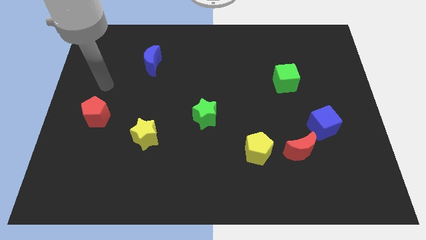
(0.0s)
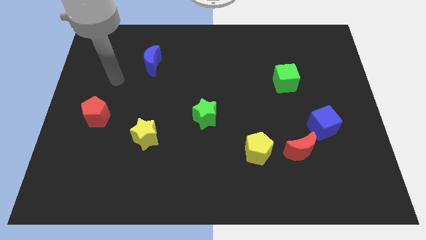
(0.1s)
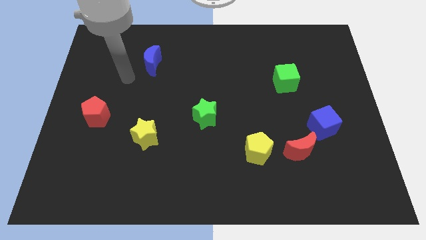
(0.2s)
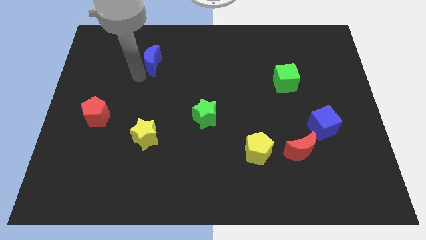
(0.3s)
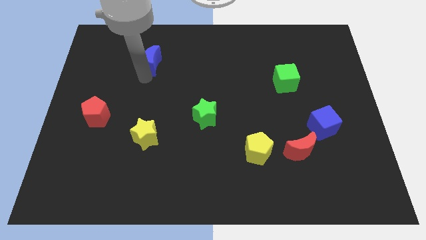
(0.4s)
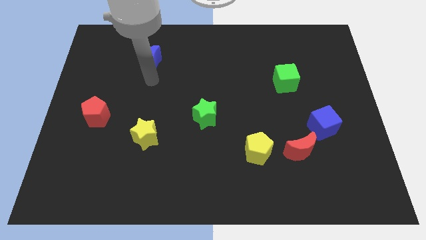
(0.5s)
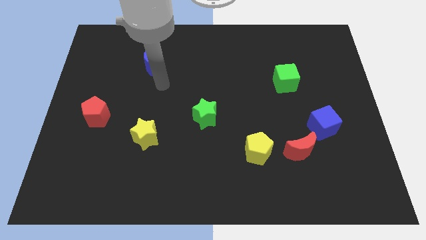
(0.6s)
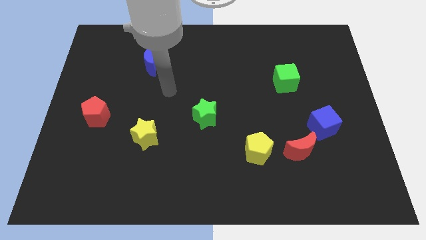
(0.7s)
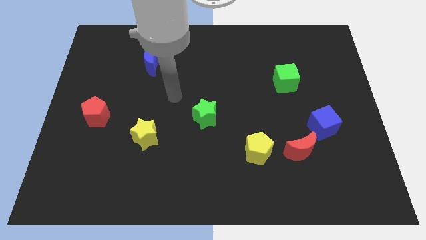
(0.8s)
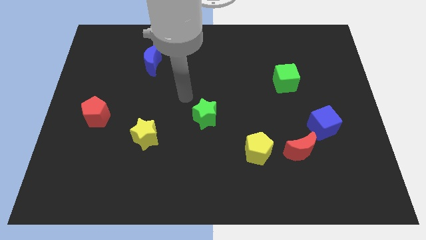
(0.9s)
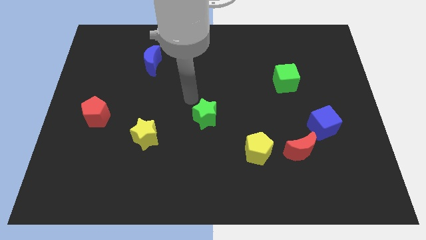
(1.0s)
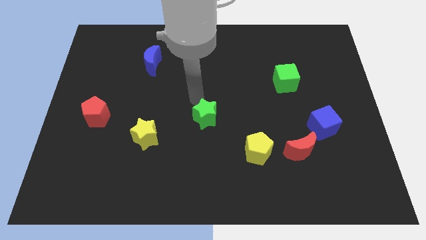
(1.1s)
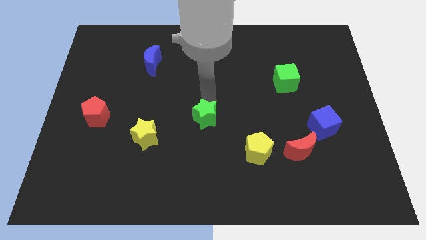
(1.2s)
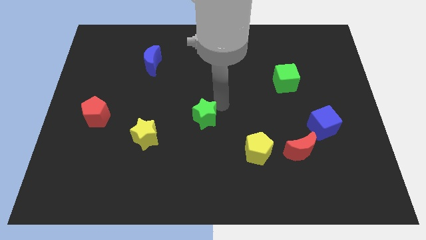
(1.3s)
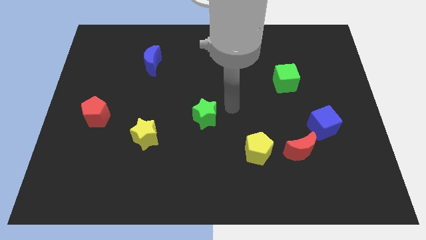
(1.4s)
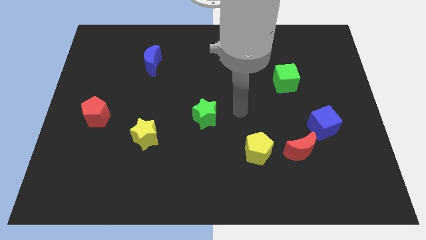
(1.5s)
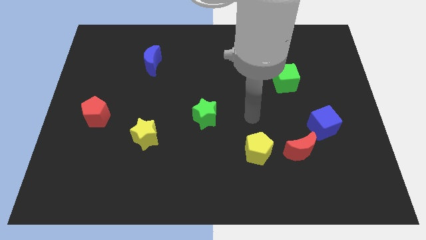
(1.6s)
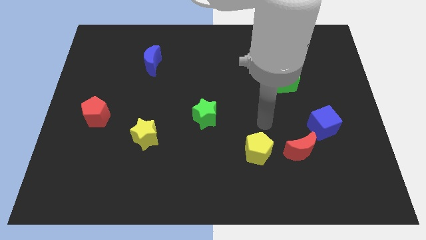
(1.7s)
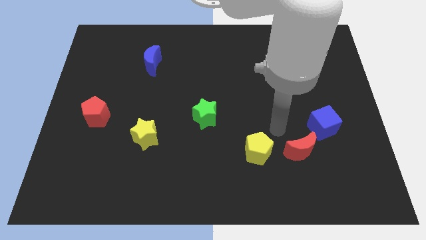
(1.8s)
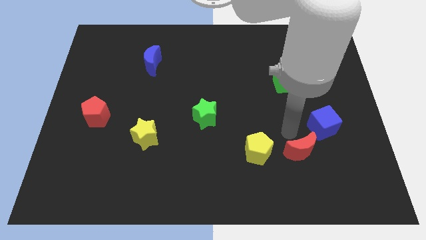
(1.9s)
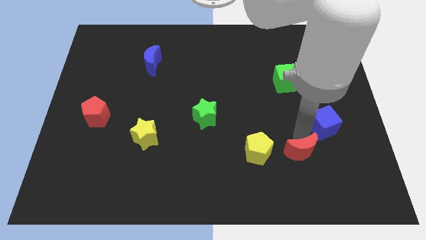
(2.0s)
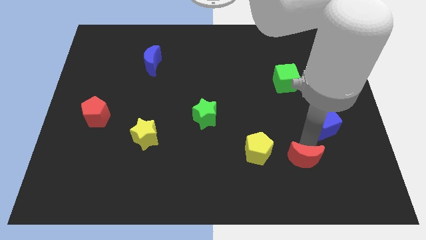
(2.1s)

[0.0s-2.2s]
pull the blue cube apart from the red moon

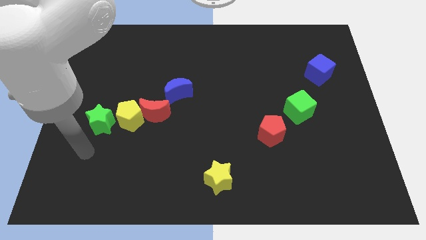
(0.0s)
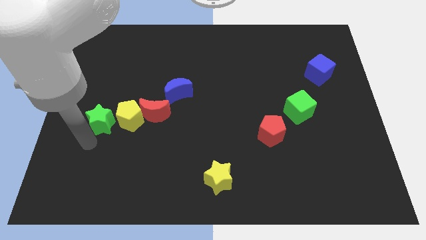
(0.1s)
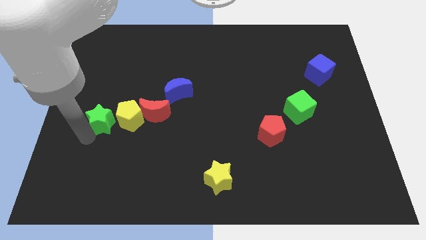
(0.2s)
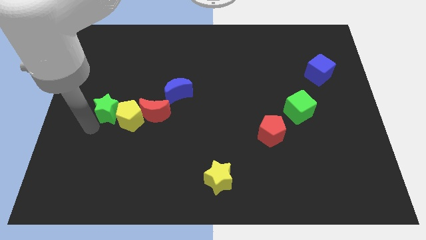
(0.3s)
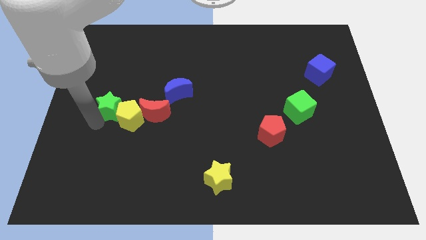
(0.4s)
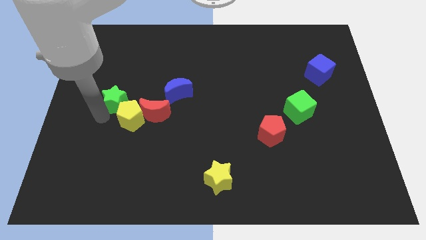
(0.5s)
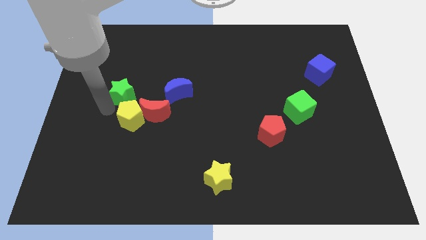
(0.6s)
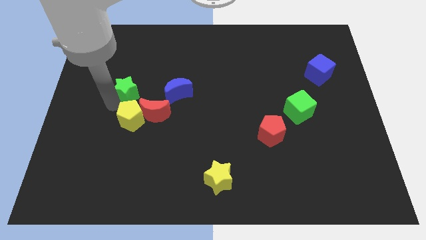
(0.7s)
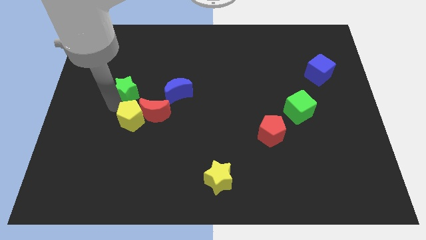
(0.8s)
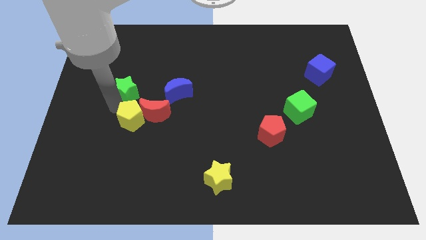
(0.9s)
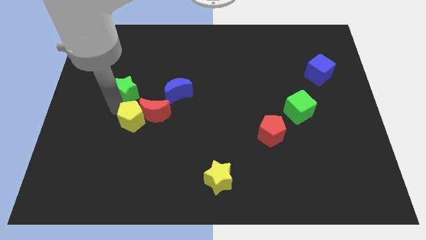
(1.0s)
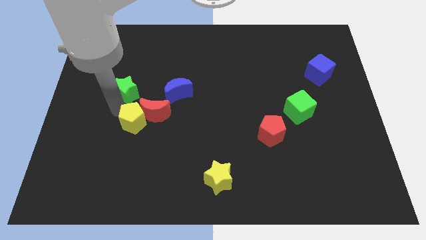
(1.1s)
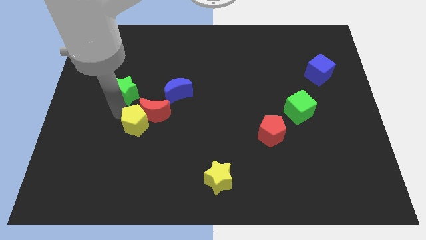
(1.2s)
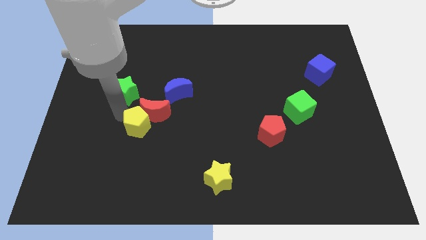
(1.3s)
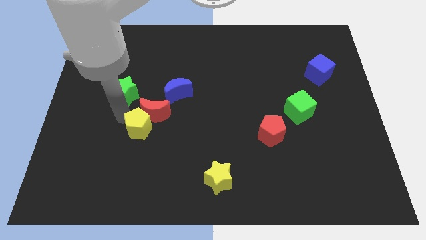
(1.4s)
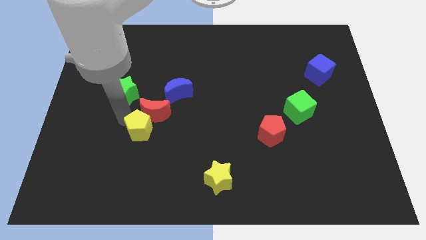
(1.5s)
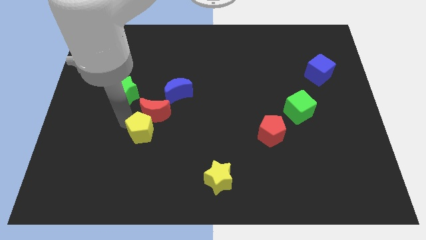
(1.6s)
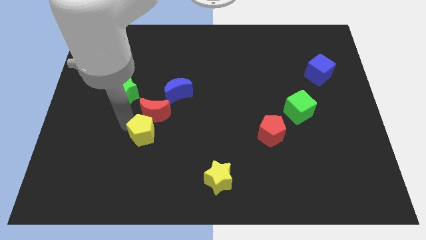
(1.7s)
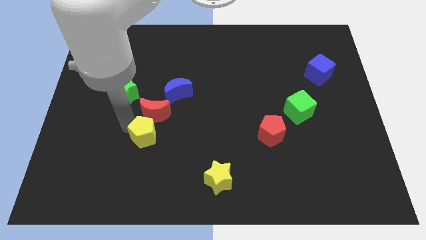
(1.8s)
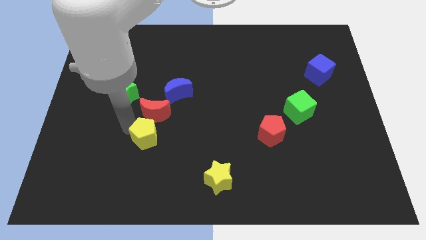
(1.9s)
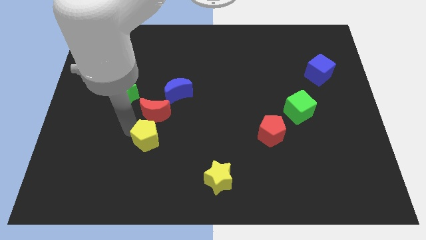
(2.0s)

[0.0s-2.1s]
separate the yellow pentagon from the red moon and green star

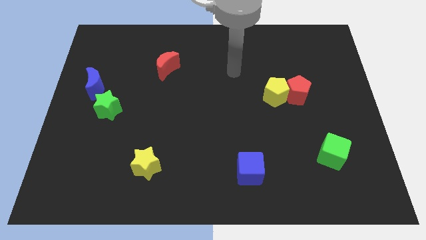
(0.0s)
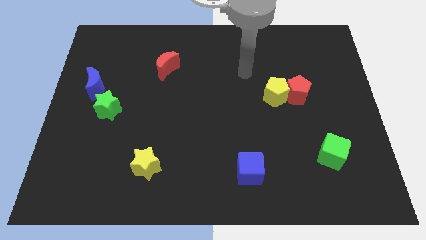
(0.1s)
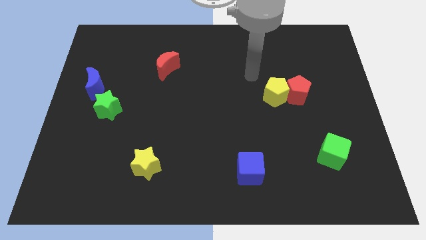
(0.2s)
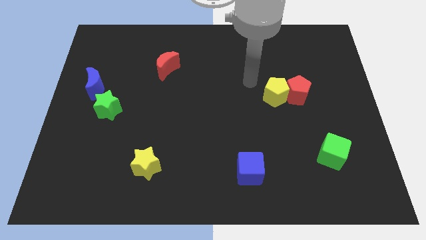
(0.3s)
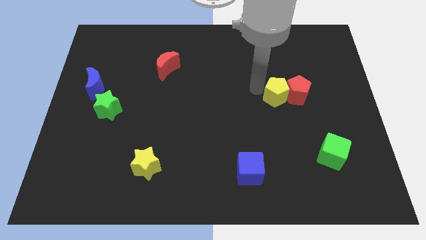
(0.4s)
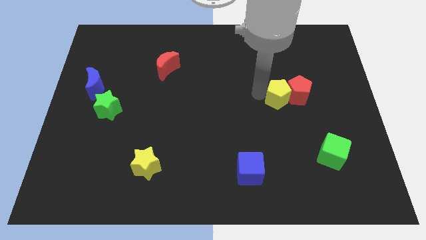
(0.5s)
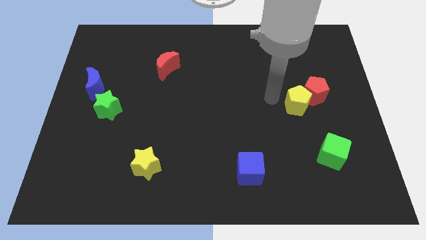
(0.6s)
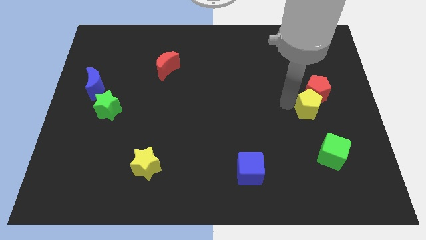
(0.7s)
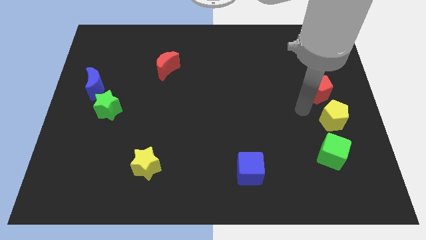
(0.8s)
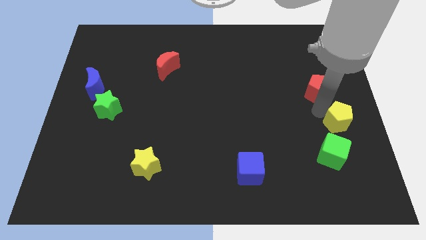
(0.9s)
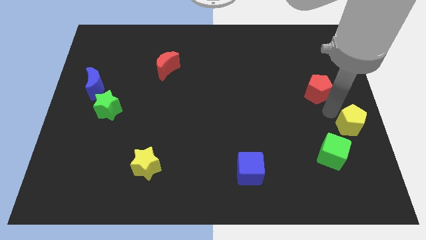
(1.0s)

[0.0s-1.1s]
move the red pentagon away from the yellow pentagon

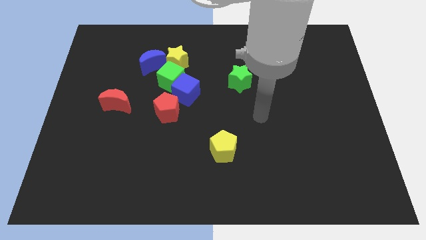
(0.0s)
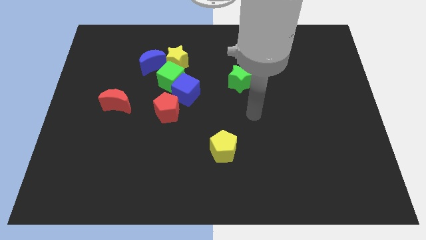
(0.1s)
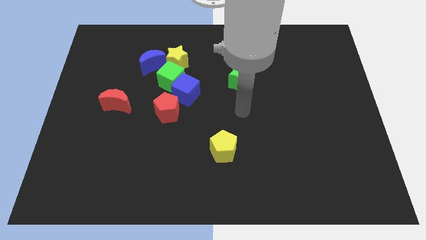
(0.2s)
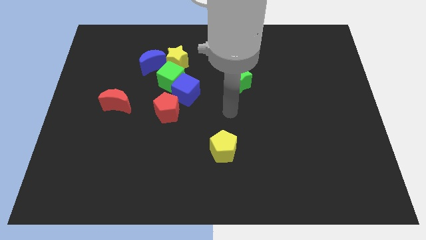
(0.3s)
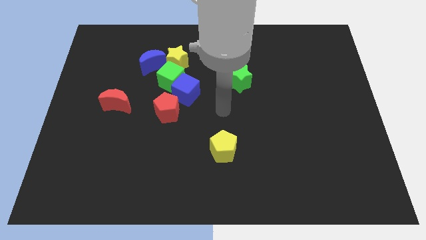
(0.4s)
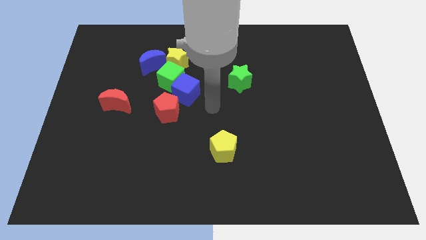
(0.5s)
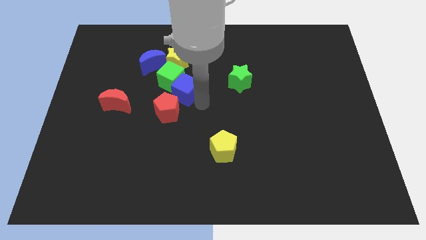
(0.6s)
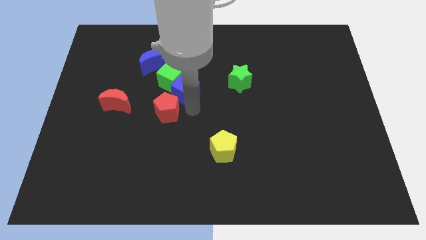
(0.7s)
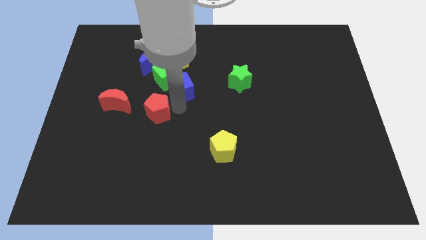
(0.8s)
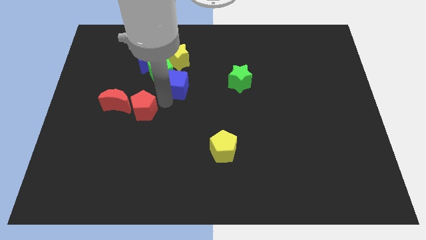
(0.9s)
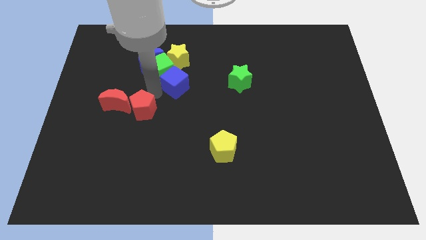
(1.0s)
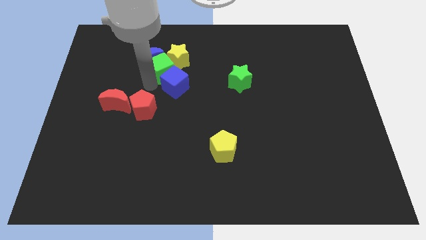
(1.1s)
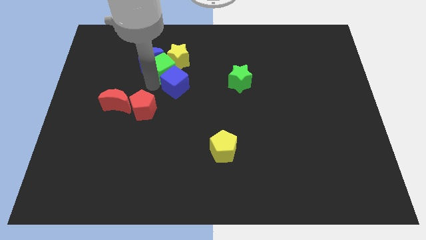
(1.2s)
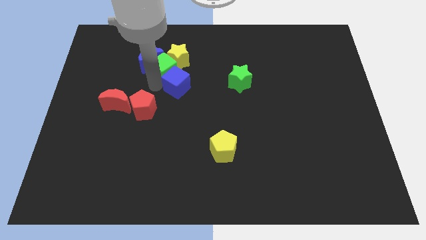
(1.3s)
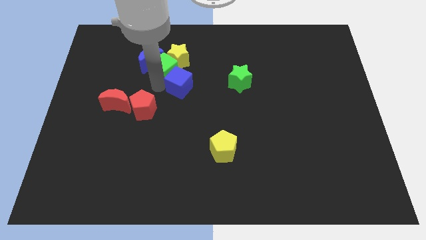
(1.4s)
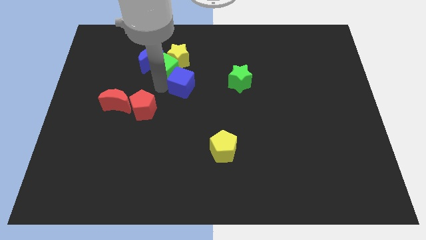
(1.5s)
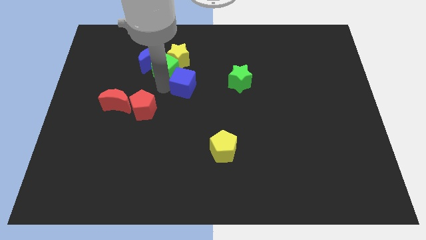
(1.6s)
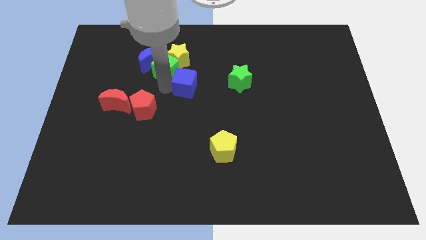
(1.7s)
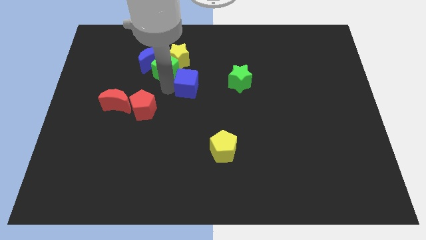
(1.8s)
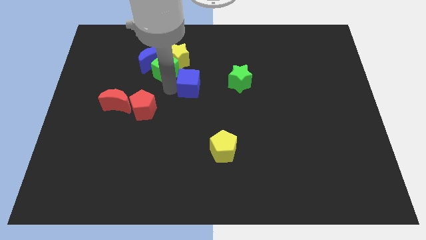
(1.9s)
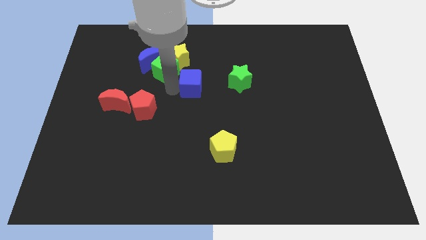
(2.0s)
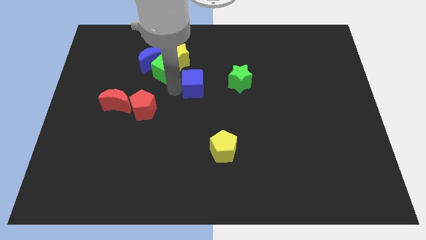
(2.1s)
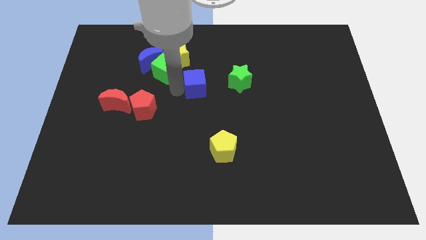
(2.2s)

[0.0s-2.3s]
separate the blue cube from the green cube and red pentagon

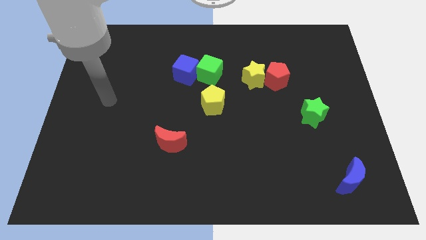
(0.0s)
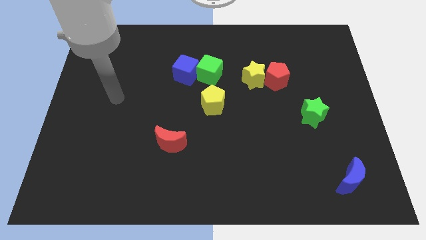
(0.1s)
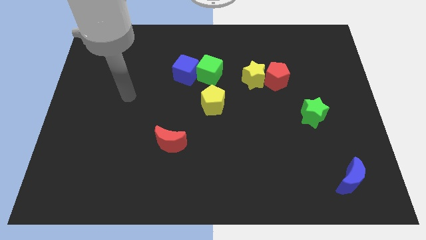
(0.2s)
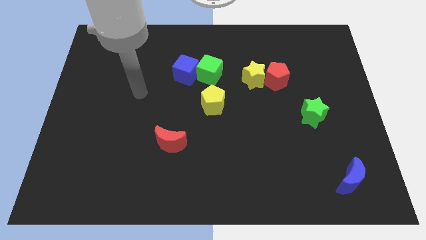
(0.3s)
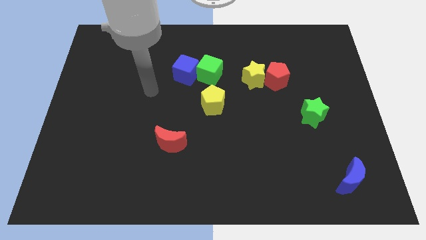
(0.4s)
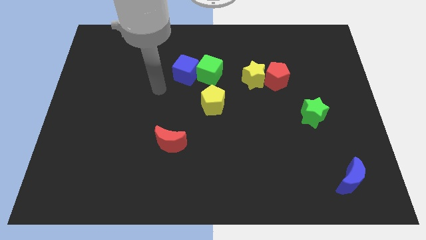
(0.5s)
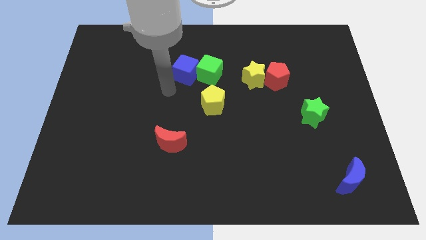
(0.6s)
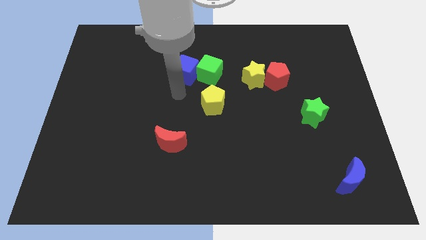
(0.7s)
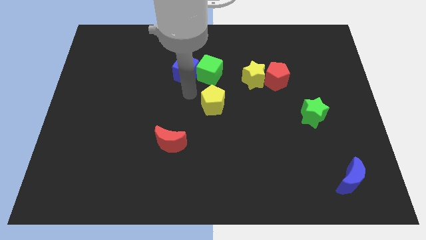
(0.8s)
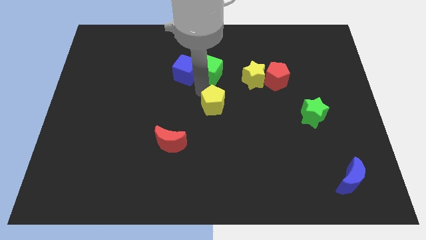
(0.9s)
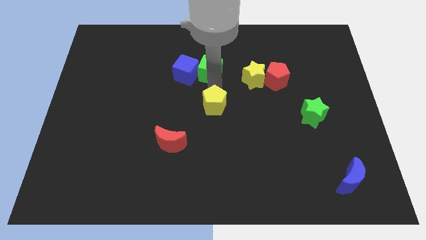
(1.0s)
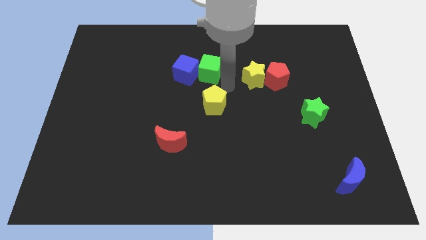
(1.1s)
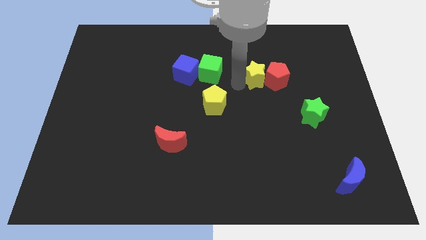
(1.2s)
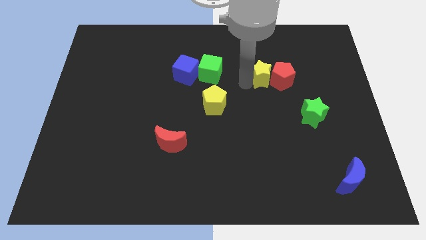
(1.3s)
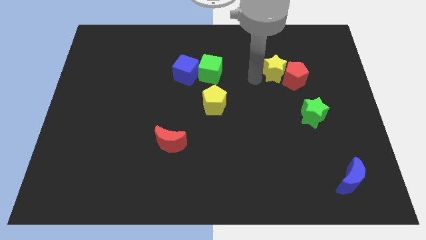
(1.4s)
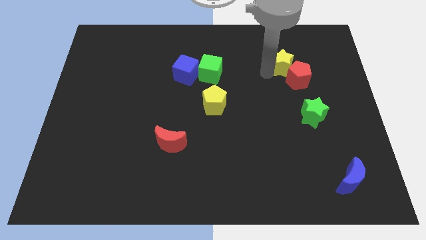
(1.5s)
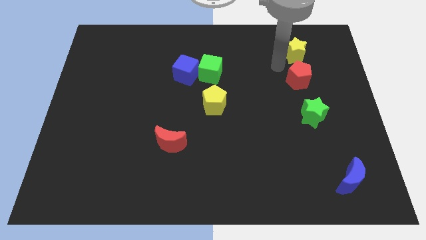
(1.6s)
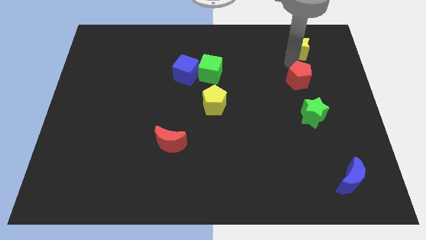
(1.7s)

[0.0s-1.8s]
pull the red pentagon apart from the yellow star

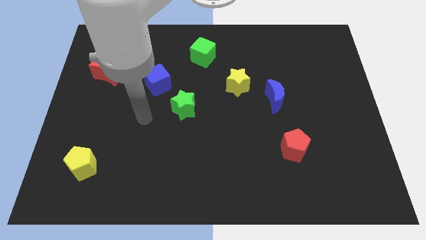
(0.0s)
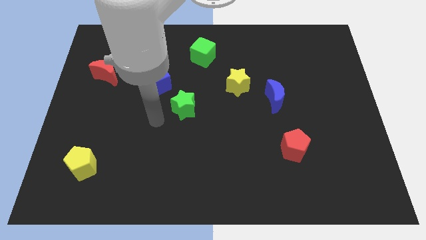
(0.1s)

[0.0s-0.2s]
pull the blue moon apart from the yellow star
